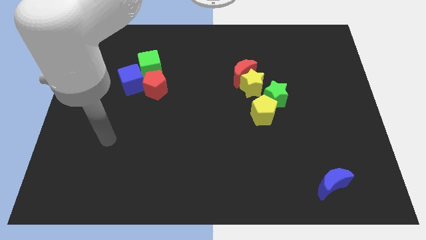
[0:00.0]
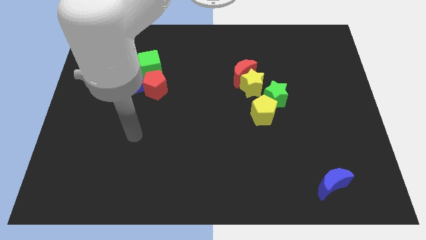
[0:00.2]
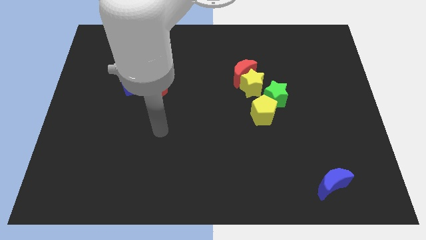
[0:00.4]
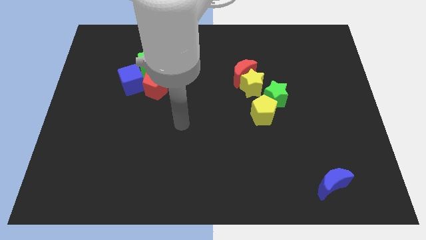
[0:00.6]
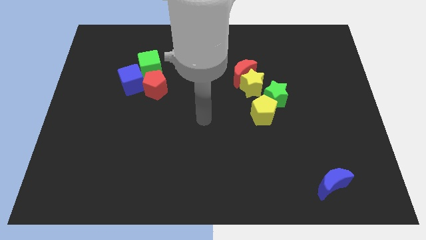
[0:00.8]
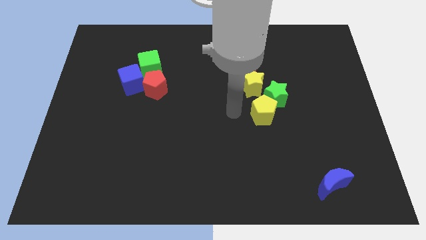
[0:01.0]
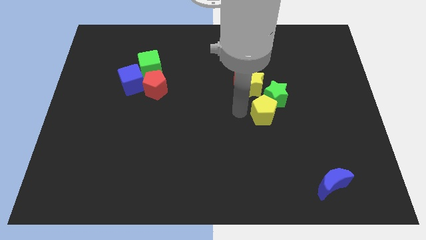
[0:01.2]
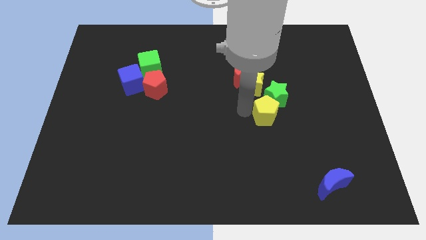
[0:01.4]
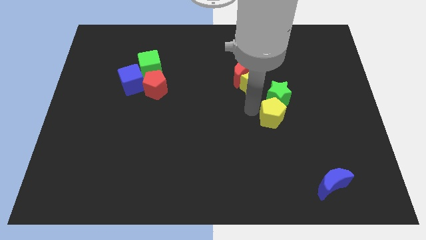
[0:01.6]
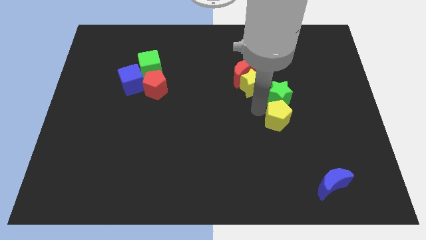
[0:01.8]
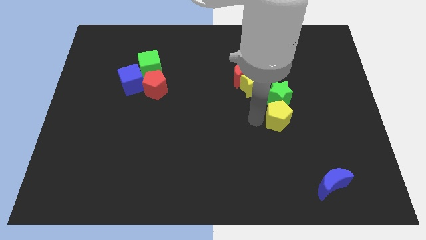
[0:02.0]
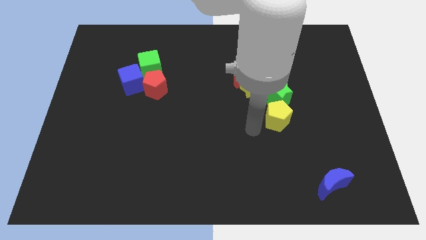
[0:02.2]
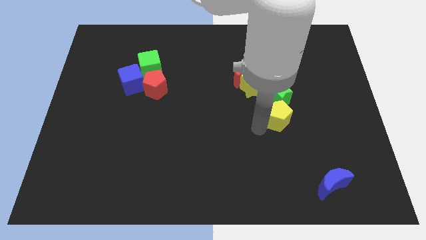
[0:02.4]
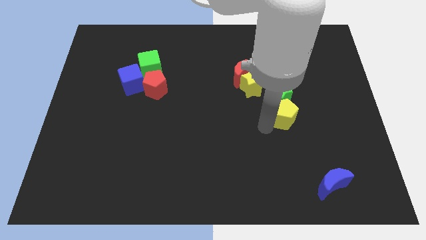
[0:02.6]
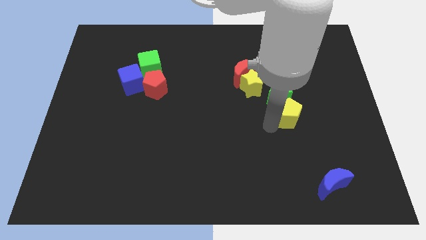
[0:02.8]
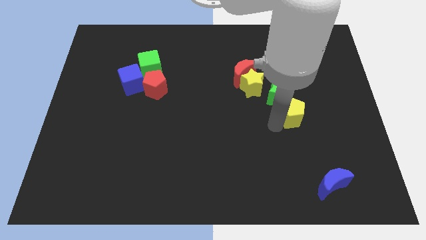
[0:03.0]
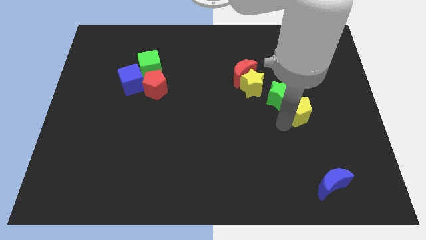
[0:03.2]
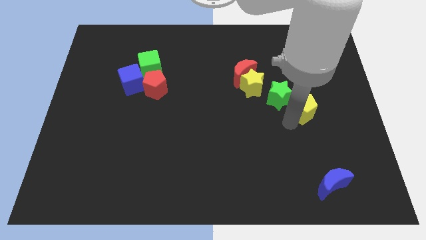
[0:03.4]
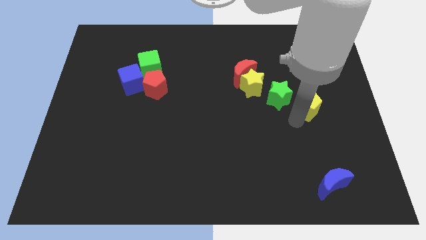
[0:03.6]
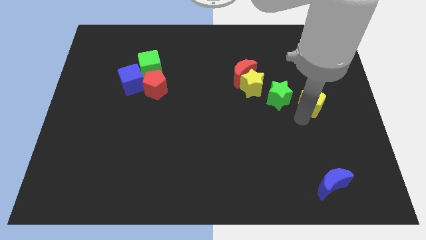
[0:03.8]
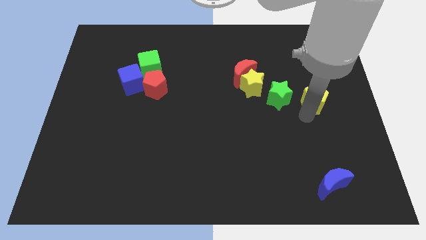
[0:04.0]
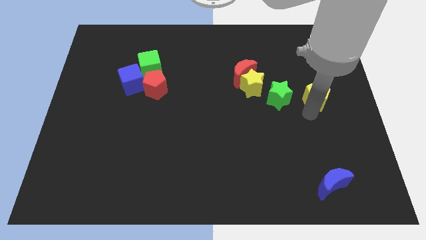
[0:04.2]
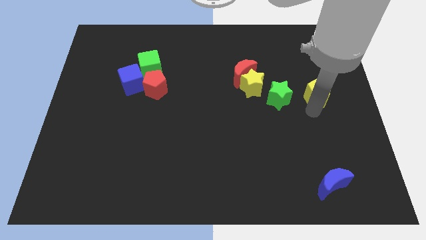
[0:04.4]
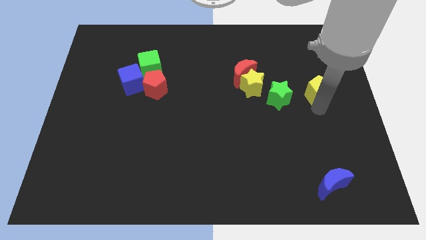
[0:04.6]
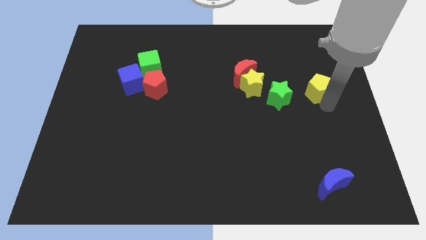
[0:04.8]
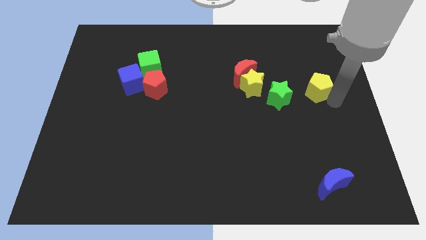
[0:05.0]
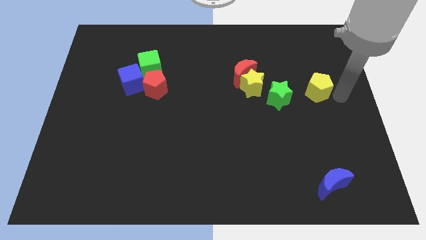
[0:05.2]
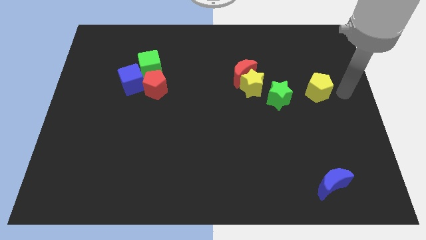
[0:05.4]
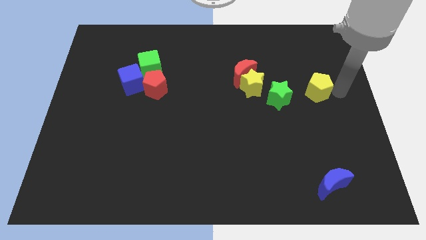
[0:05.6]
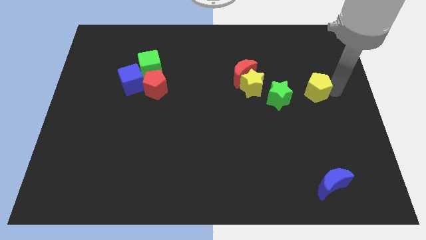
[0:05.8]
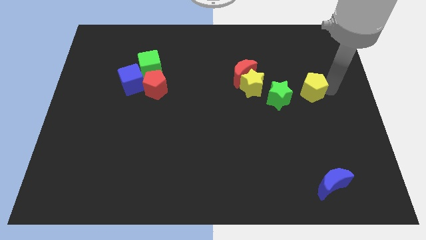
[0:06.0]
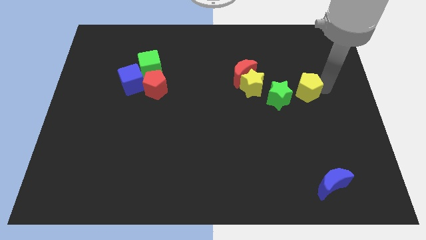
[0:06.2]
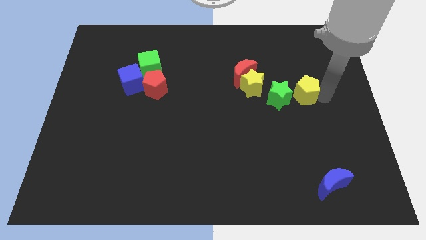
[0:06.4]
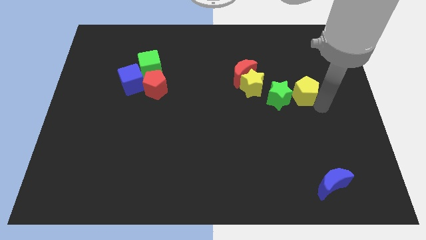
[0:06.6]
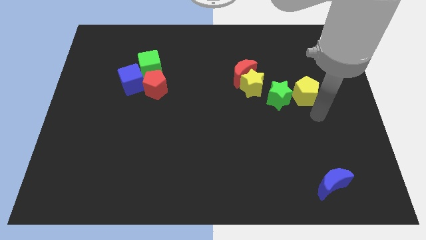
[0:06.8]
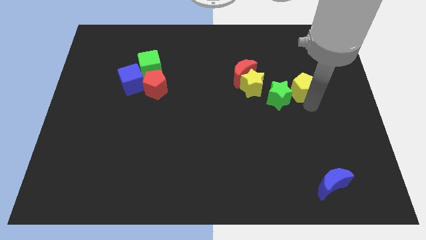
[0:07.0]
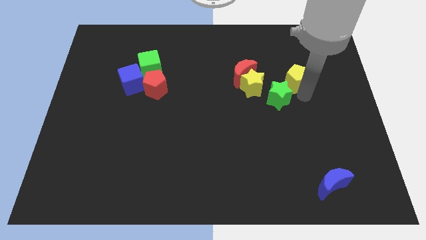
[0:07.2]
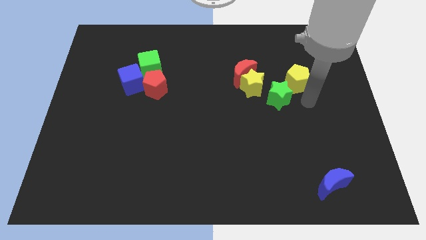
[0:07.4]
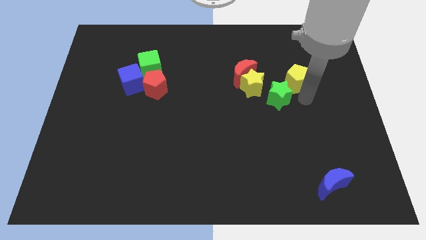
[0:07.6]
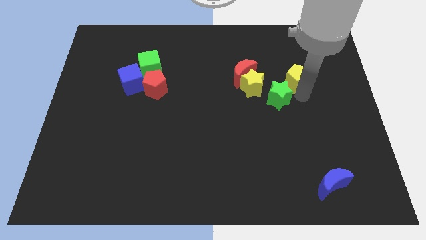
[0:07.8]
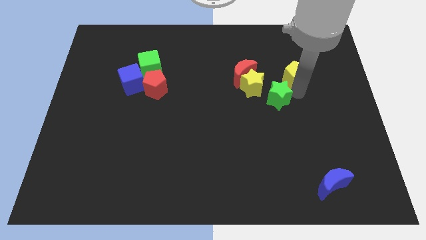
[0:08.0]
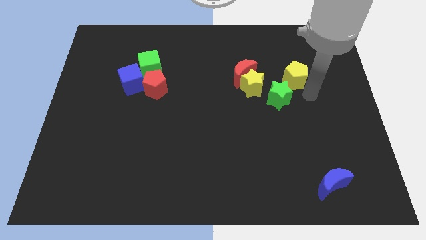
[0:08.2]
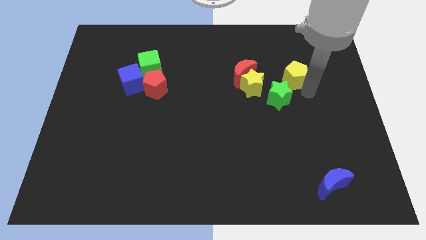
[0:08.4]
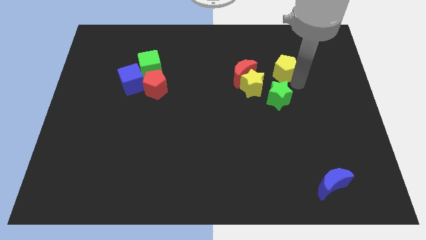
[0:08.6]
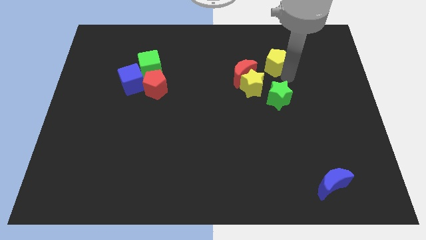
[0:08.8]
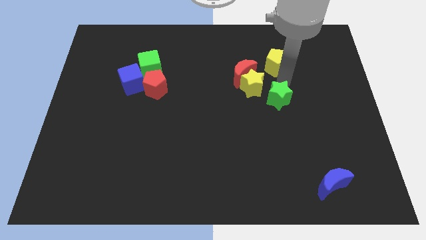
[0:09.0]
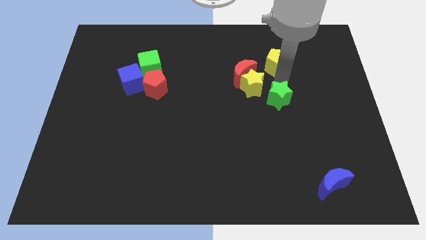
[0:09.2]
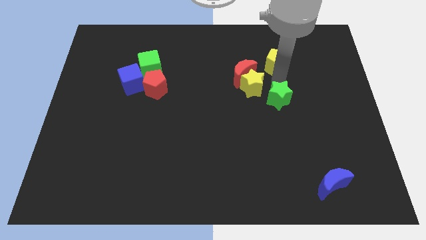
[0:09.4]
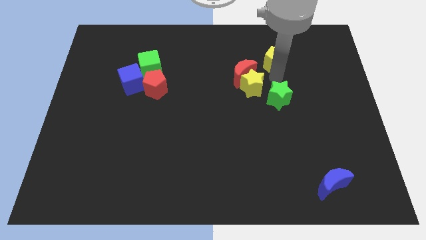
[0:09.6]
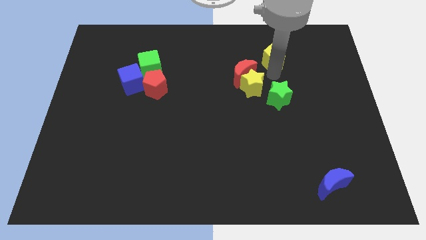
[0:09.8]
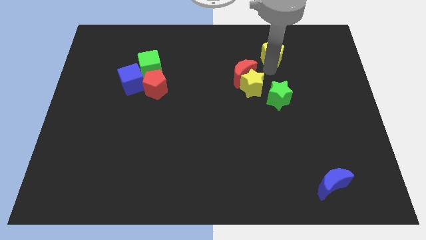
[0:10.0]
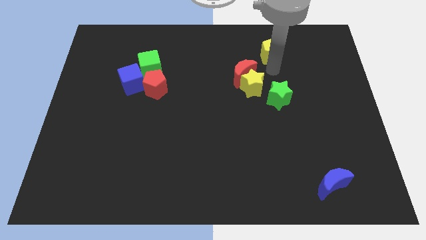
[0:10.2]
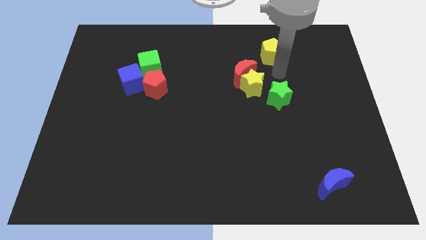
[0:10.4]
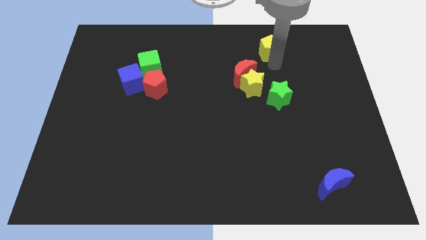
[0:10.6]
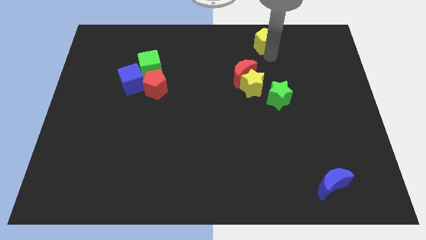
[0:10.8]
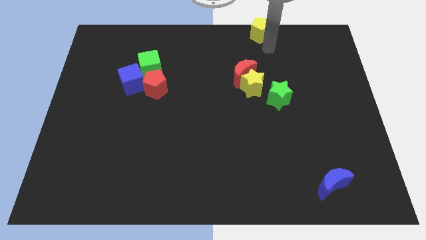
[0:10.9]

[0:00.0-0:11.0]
slide the yellow pentagon to the top side
